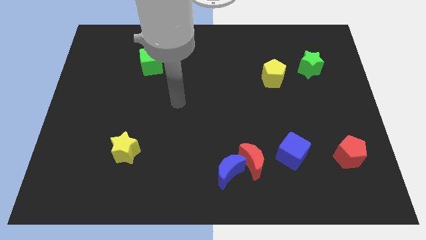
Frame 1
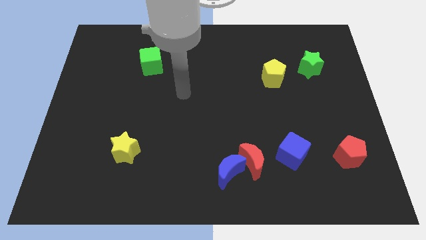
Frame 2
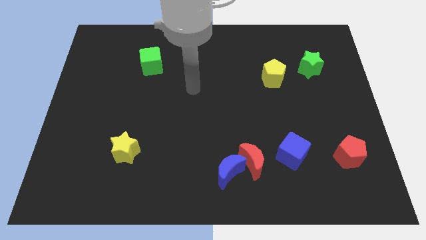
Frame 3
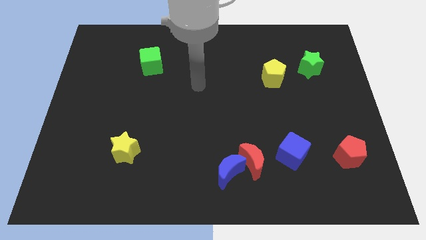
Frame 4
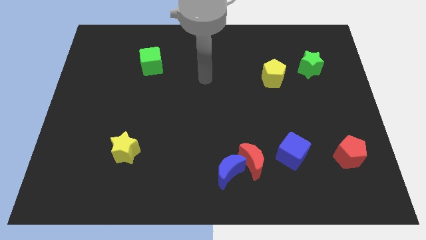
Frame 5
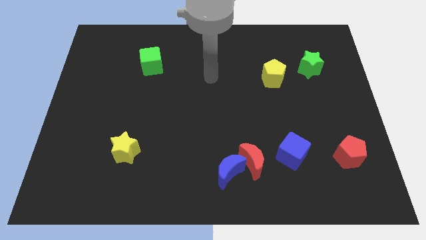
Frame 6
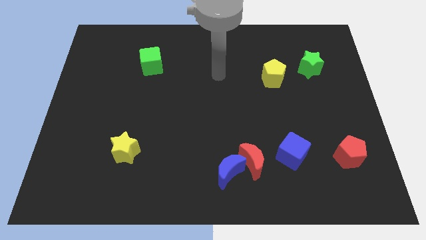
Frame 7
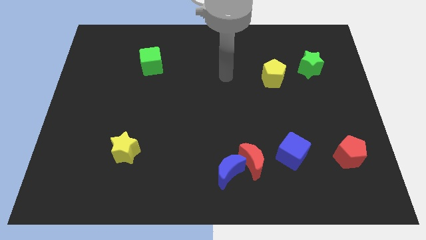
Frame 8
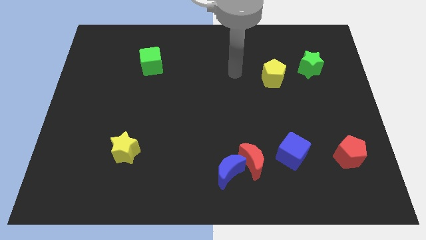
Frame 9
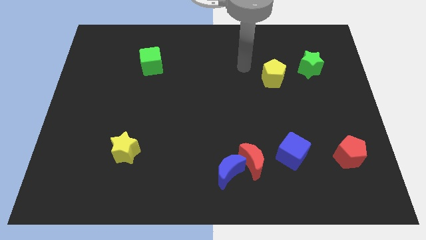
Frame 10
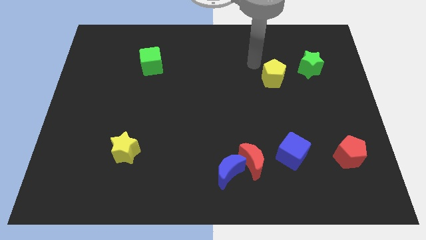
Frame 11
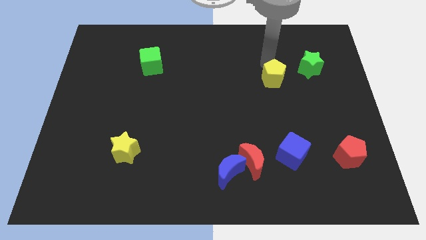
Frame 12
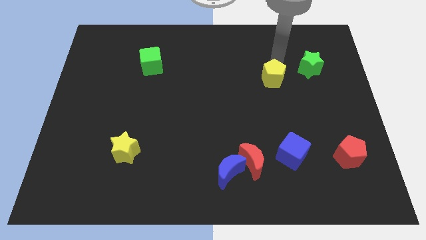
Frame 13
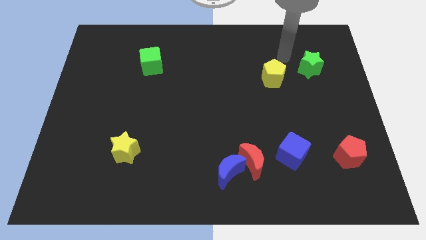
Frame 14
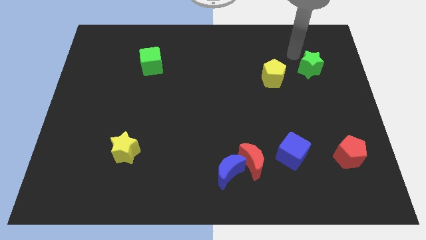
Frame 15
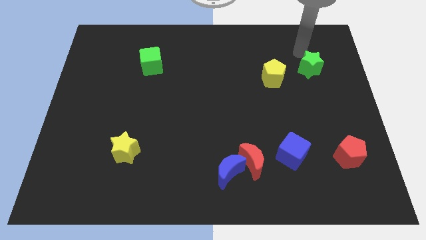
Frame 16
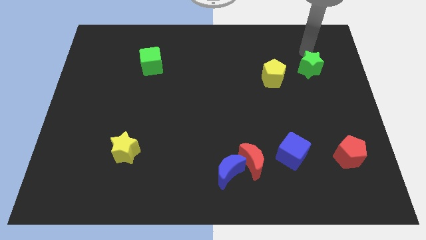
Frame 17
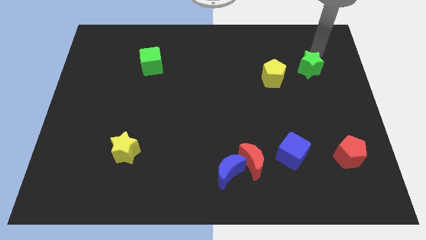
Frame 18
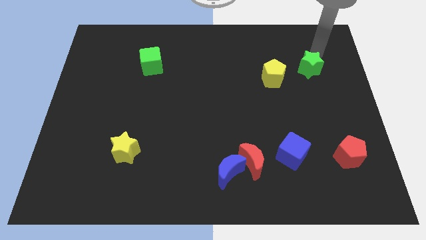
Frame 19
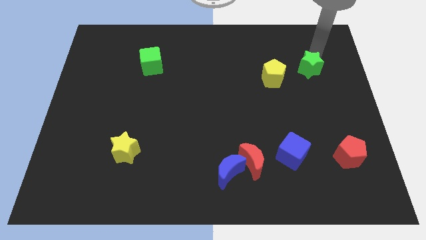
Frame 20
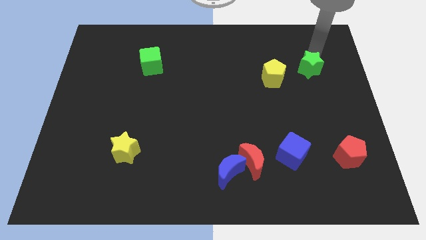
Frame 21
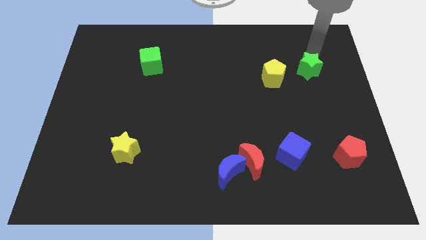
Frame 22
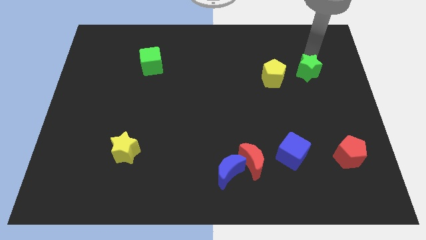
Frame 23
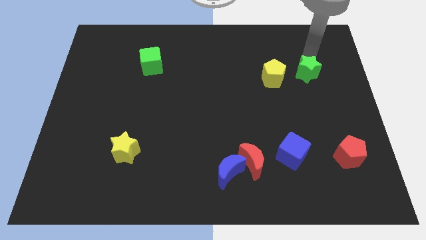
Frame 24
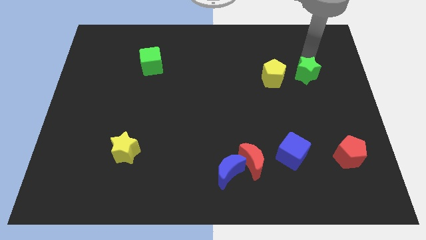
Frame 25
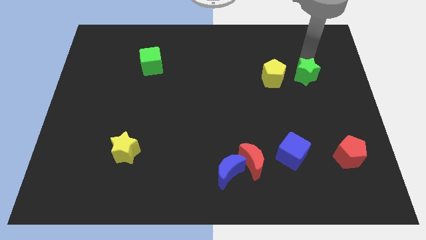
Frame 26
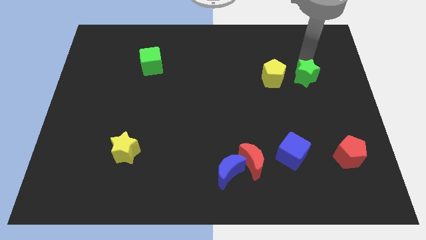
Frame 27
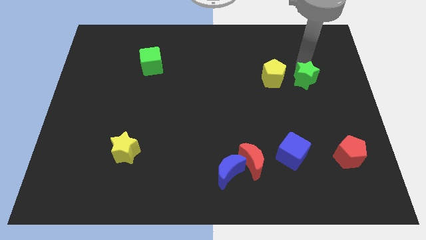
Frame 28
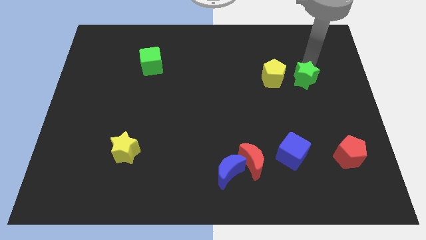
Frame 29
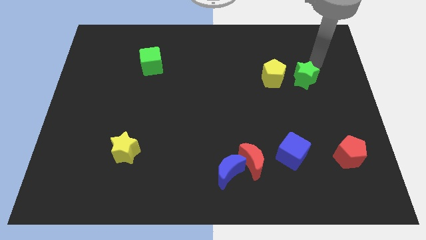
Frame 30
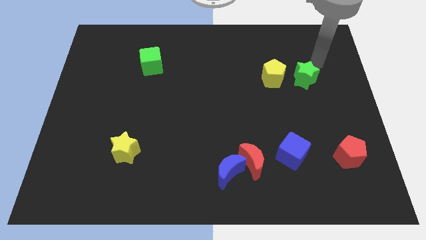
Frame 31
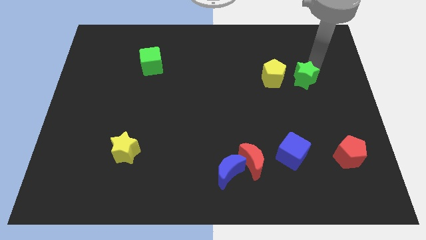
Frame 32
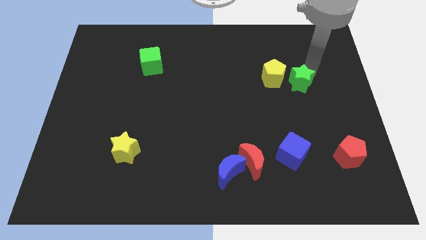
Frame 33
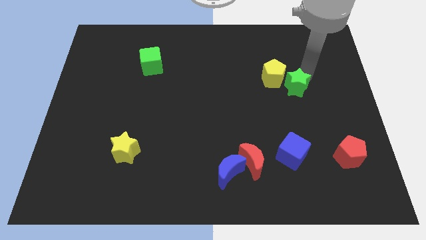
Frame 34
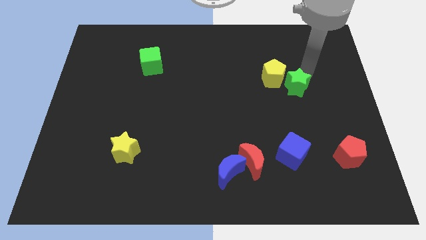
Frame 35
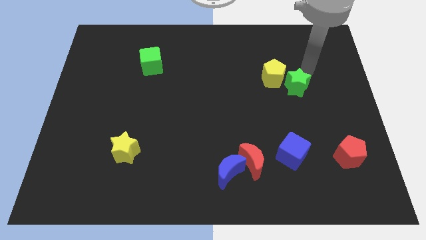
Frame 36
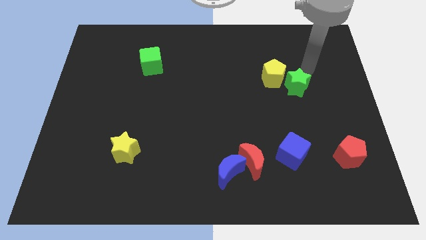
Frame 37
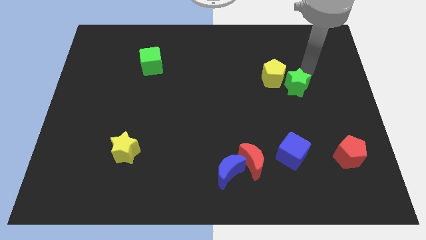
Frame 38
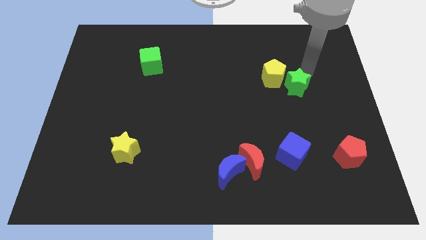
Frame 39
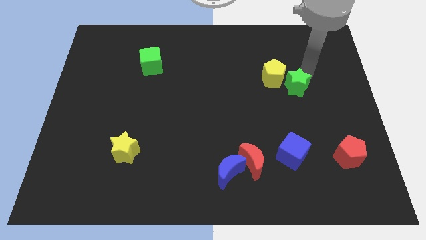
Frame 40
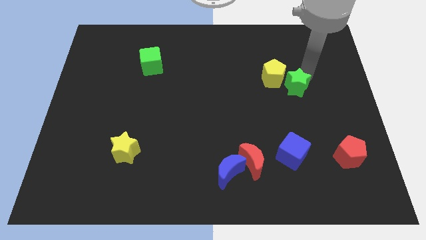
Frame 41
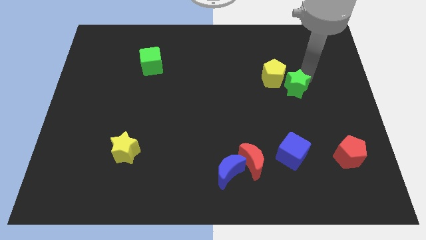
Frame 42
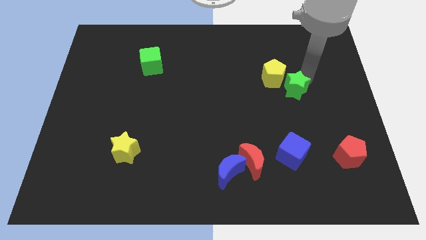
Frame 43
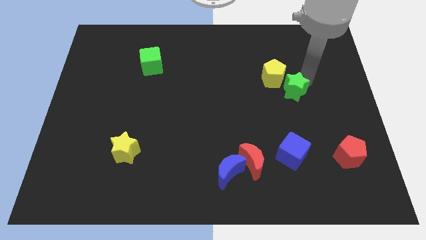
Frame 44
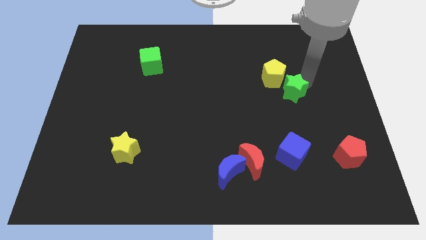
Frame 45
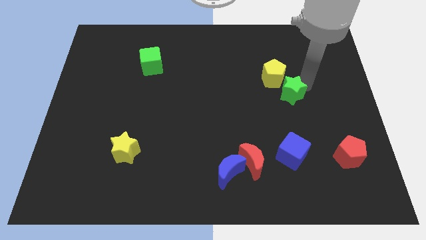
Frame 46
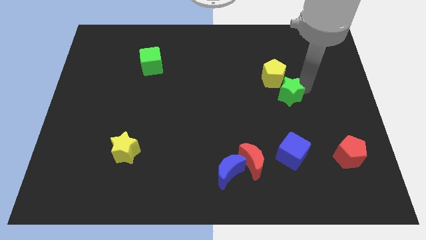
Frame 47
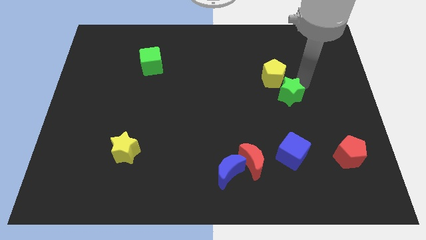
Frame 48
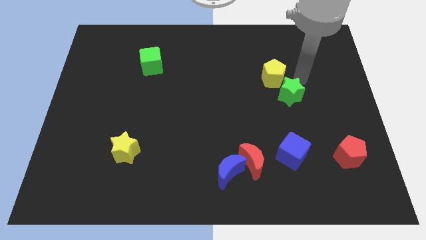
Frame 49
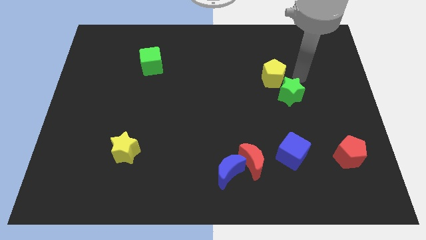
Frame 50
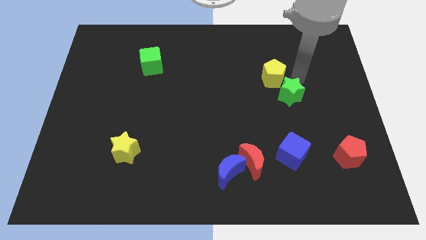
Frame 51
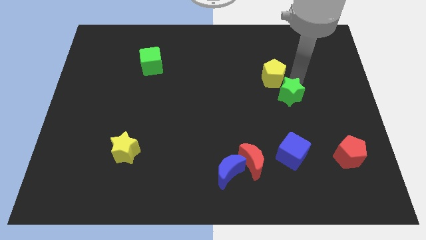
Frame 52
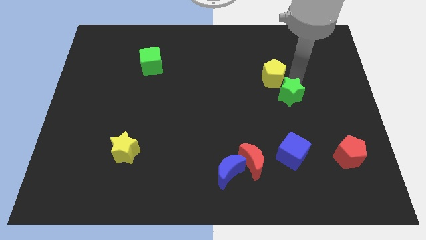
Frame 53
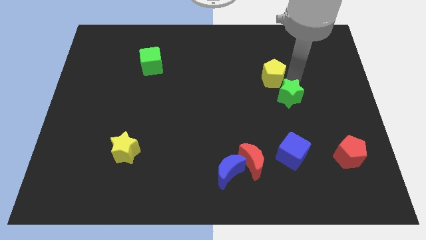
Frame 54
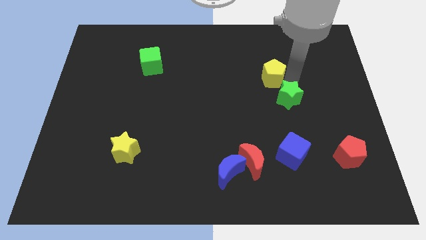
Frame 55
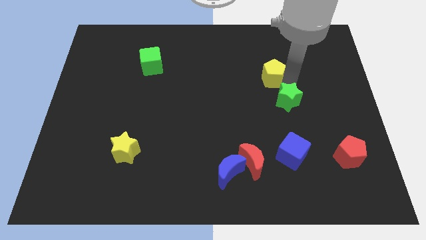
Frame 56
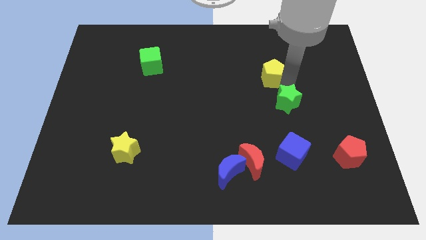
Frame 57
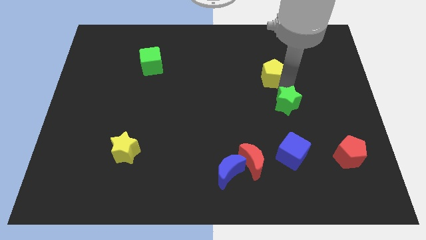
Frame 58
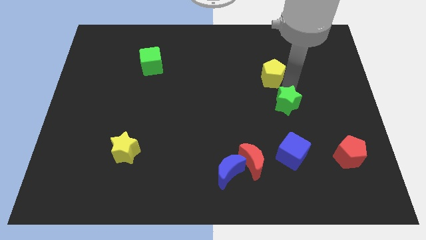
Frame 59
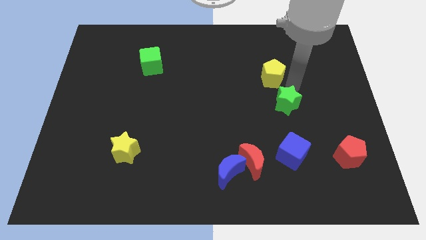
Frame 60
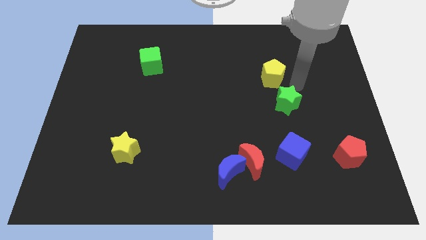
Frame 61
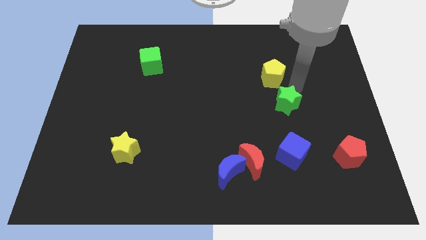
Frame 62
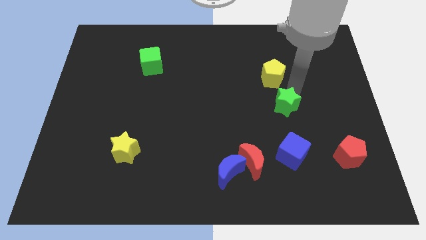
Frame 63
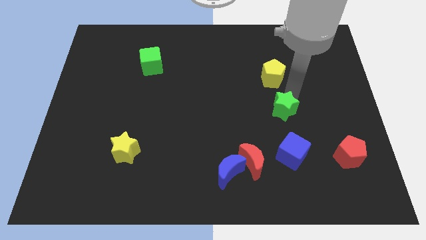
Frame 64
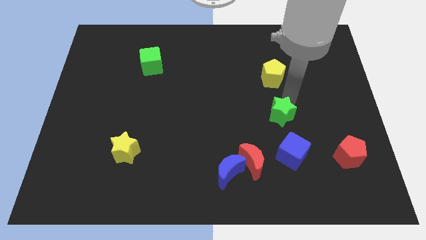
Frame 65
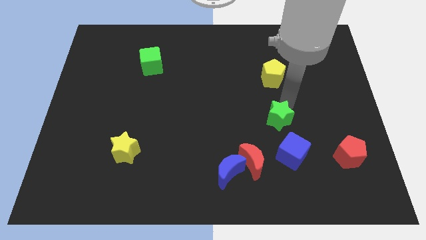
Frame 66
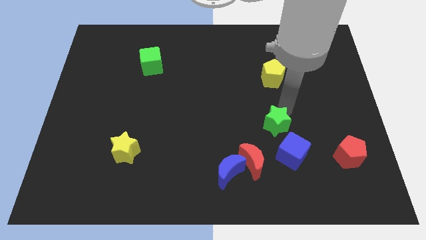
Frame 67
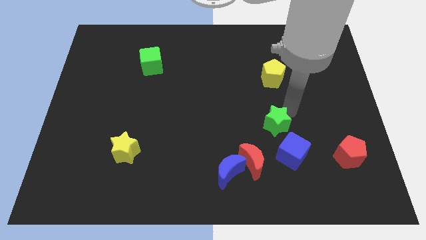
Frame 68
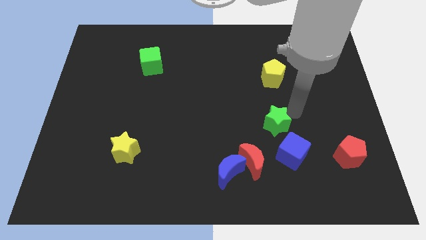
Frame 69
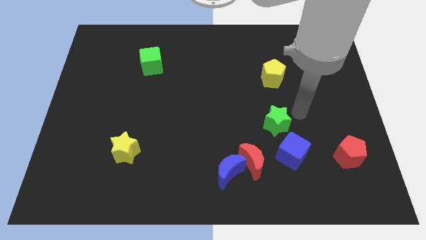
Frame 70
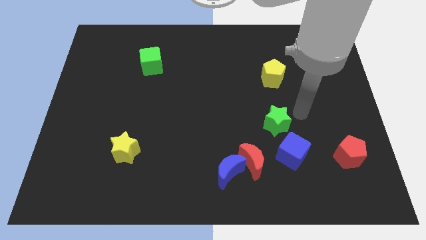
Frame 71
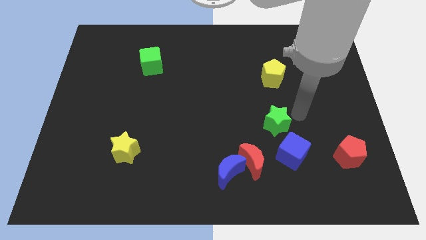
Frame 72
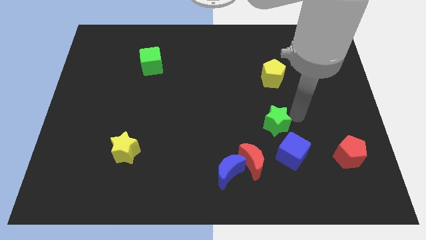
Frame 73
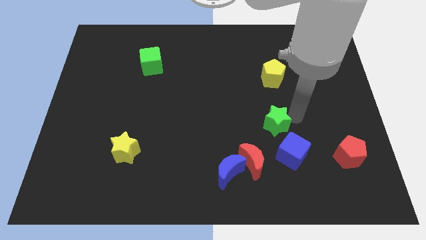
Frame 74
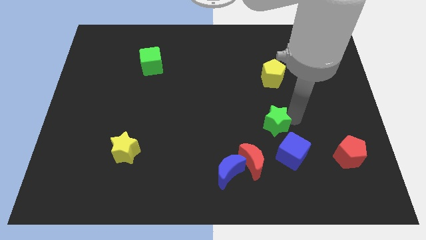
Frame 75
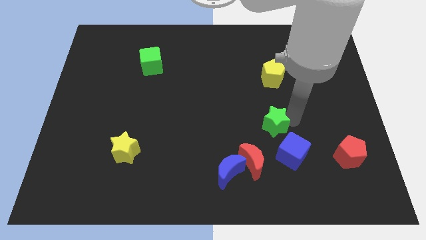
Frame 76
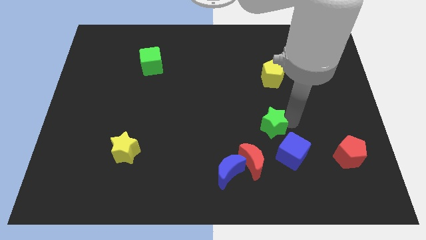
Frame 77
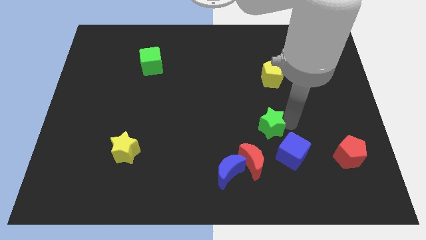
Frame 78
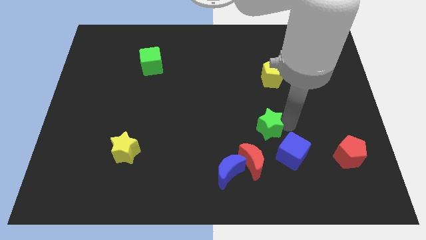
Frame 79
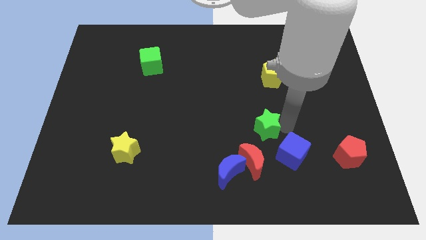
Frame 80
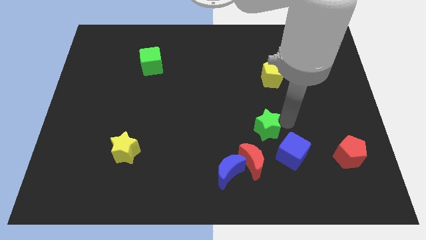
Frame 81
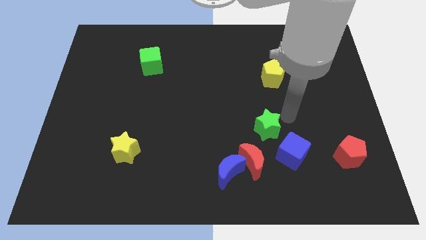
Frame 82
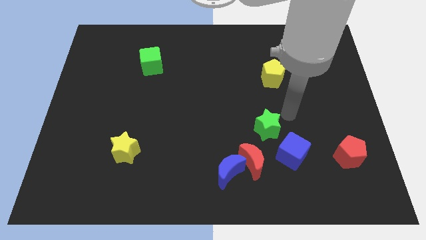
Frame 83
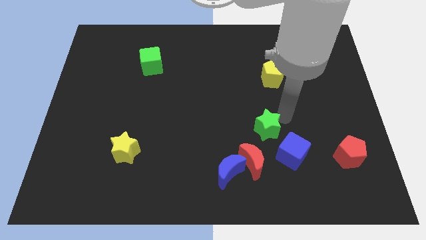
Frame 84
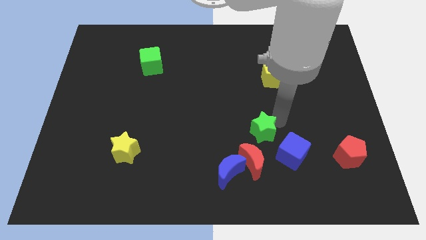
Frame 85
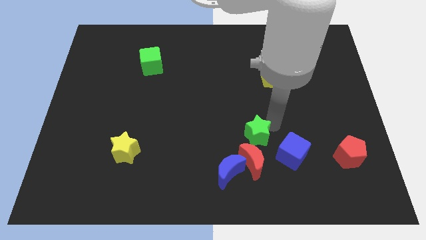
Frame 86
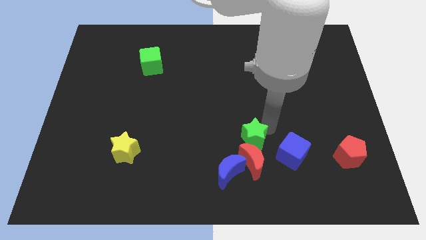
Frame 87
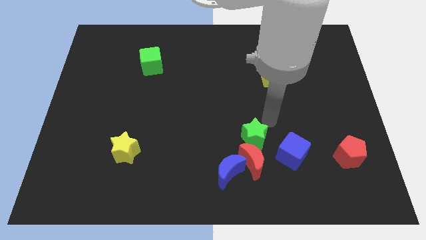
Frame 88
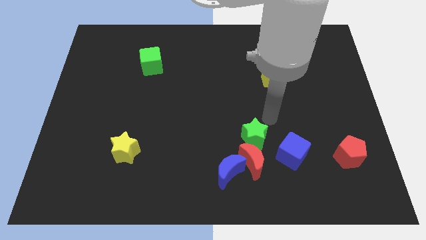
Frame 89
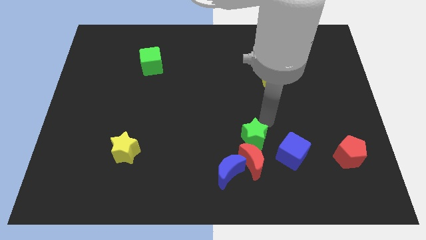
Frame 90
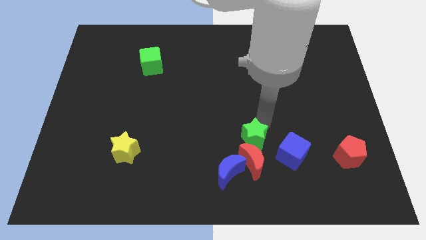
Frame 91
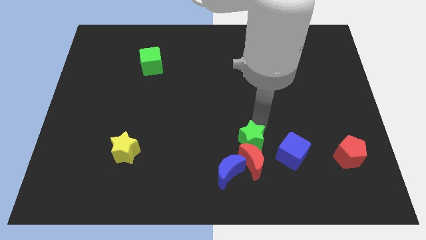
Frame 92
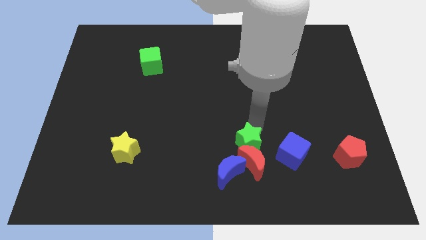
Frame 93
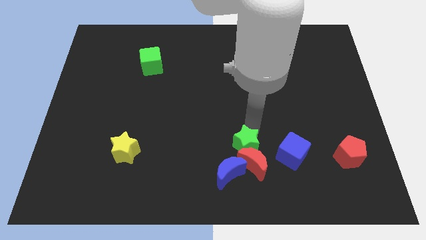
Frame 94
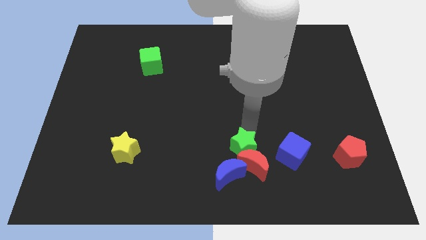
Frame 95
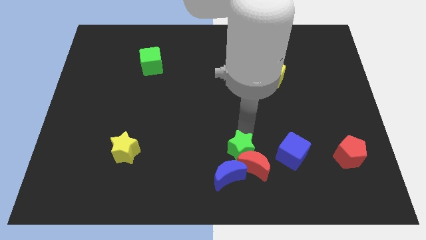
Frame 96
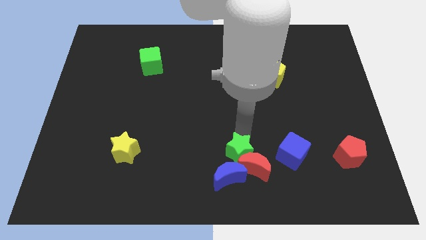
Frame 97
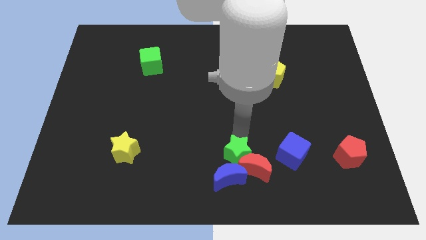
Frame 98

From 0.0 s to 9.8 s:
put the green star next to the blue moon
